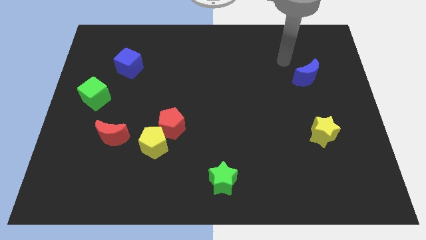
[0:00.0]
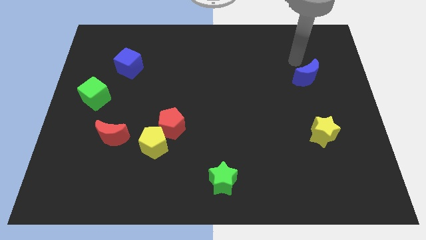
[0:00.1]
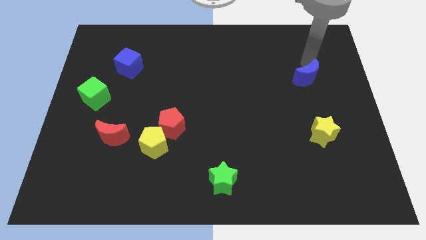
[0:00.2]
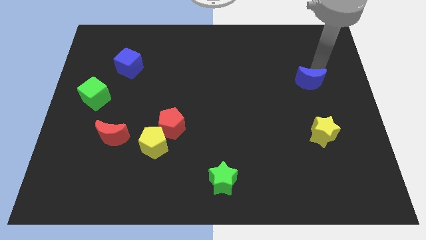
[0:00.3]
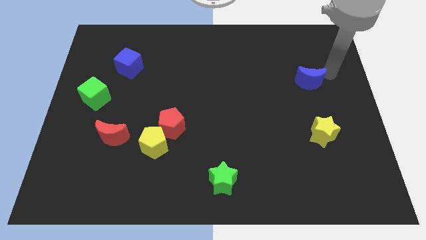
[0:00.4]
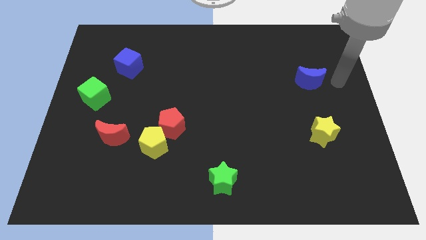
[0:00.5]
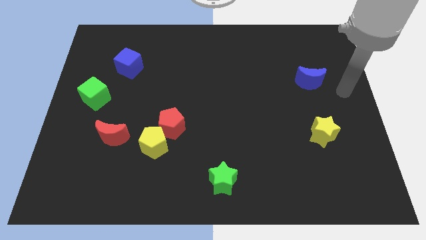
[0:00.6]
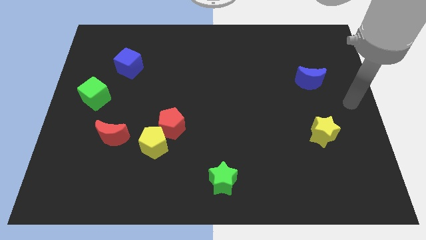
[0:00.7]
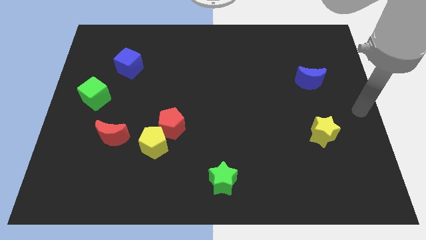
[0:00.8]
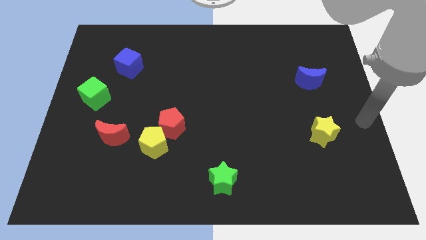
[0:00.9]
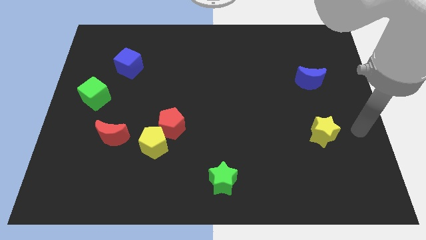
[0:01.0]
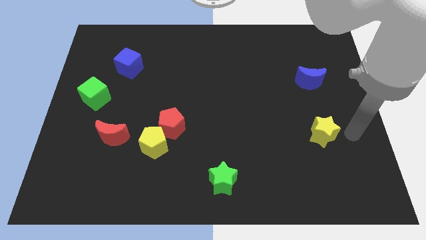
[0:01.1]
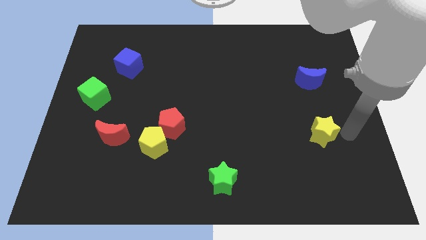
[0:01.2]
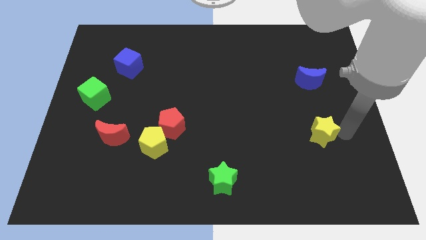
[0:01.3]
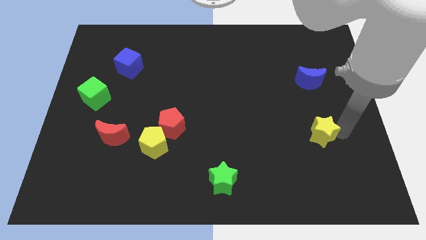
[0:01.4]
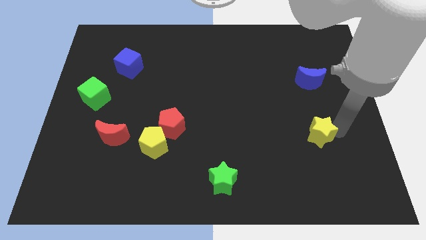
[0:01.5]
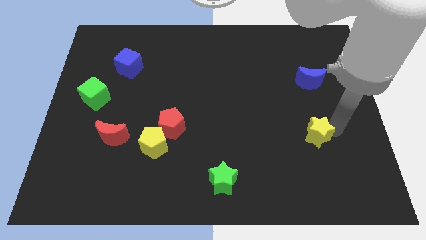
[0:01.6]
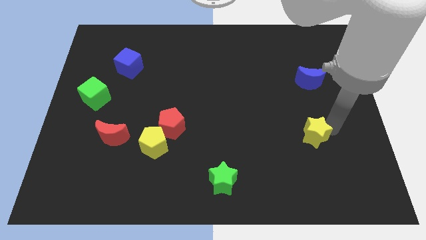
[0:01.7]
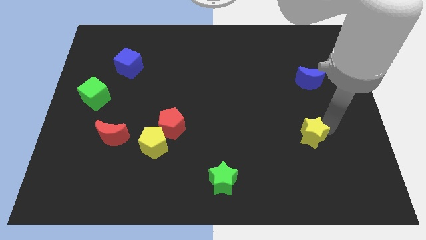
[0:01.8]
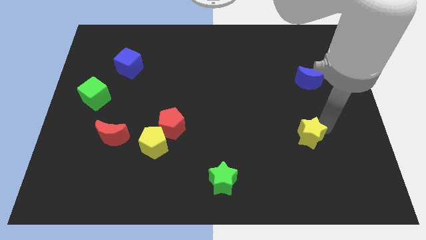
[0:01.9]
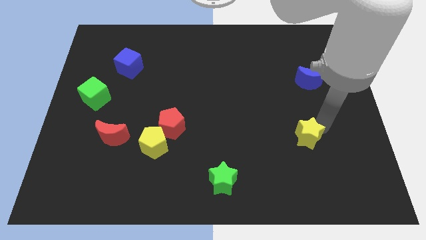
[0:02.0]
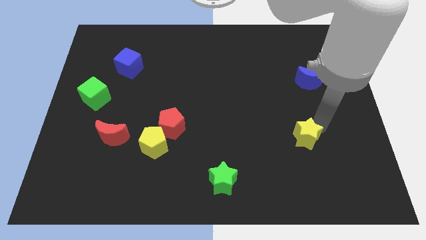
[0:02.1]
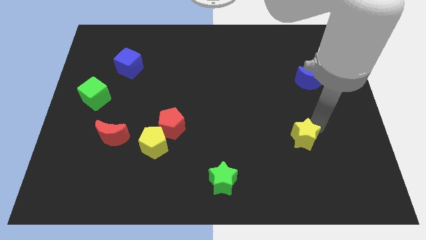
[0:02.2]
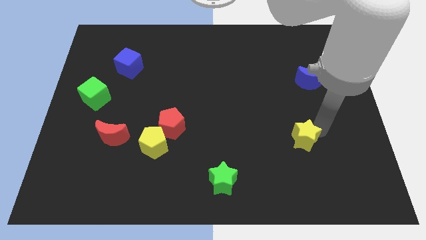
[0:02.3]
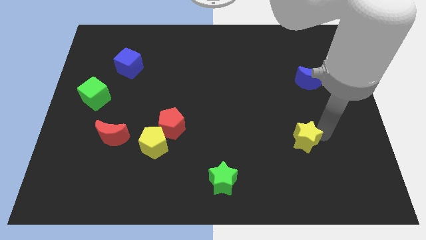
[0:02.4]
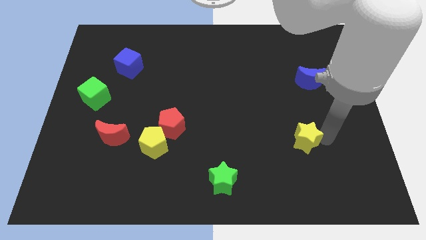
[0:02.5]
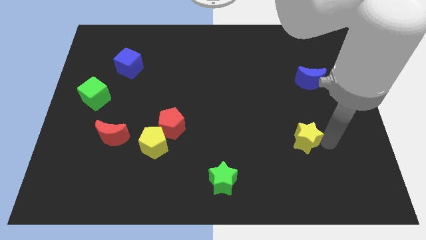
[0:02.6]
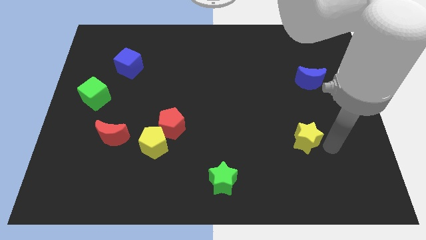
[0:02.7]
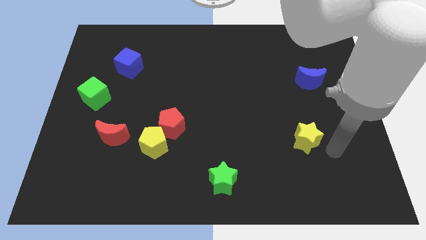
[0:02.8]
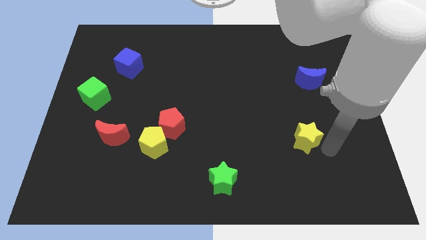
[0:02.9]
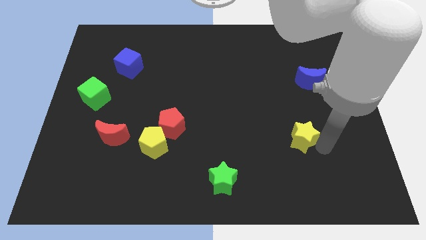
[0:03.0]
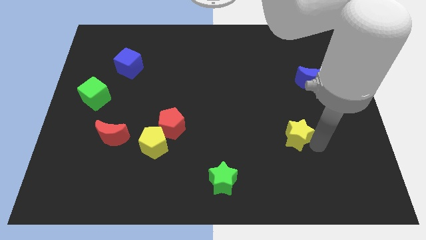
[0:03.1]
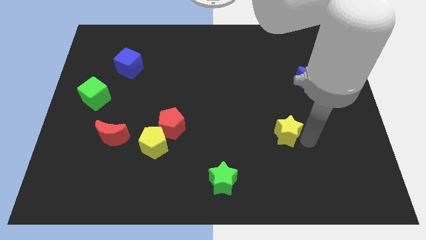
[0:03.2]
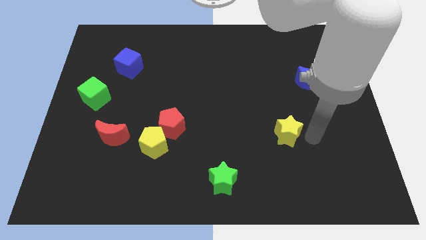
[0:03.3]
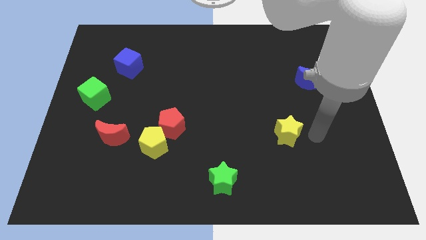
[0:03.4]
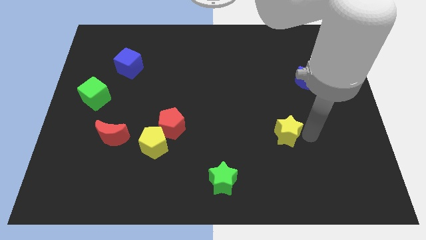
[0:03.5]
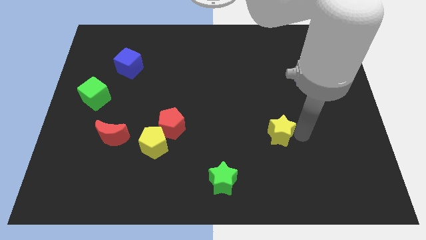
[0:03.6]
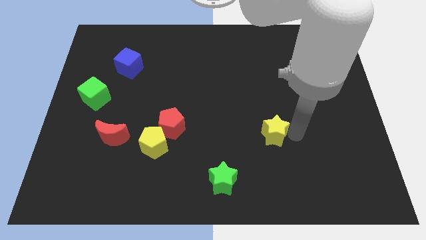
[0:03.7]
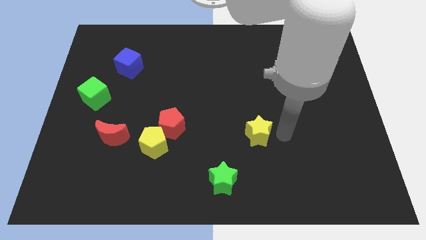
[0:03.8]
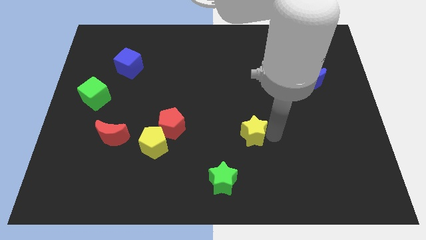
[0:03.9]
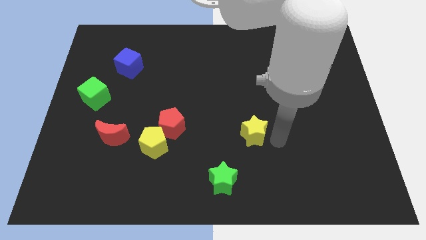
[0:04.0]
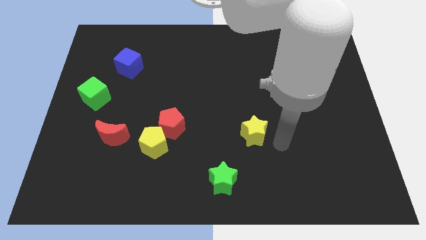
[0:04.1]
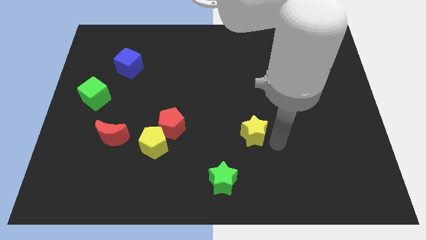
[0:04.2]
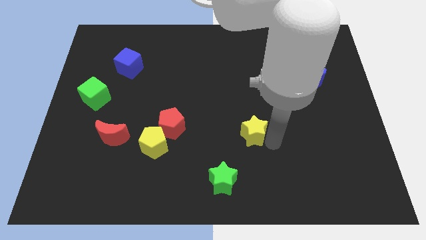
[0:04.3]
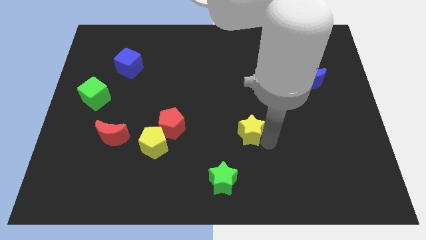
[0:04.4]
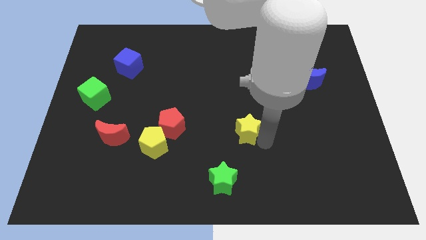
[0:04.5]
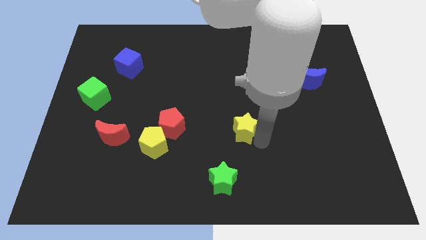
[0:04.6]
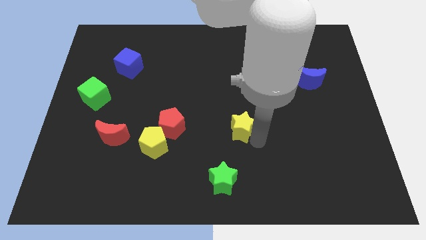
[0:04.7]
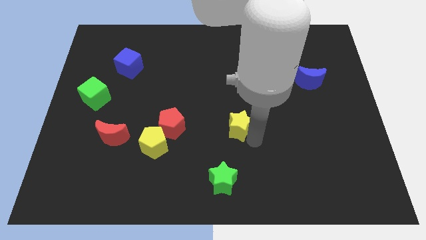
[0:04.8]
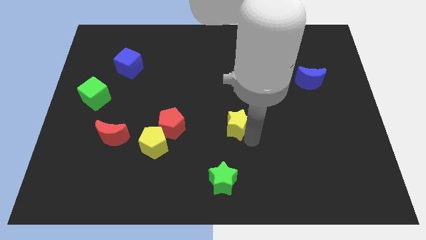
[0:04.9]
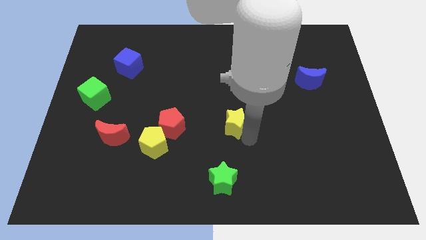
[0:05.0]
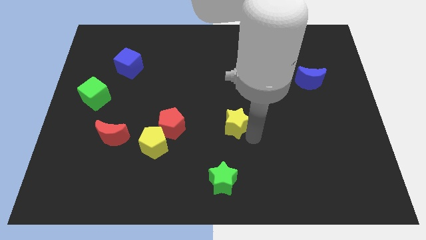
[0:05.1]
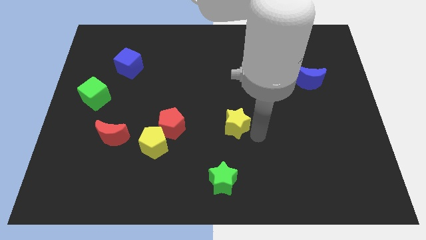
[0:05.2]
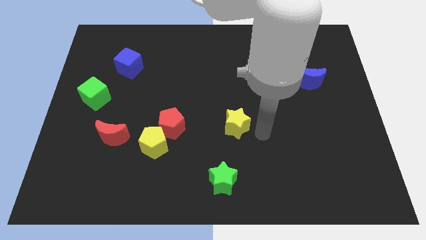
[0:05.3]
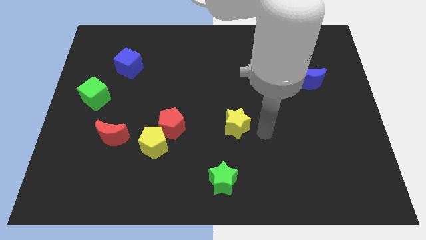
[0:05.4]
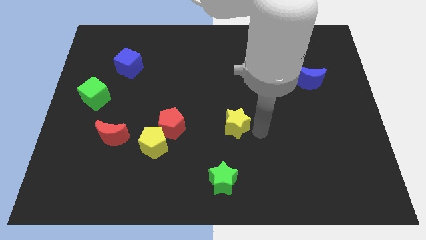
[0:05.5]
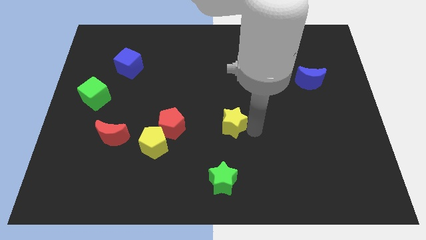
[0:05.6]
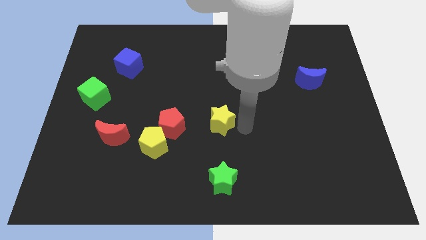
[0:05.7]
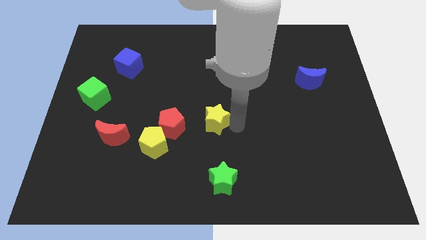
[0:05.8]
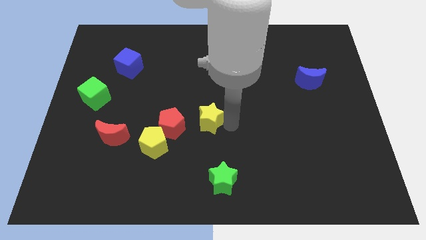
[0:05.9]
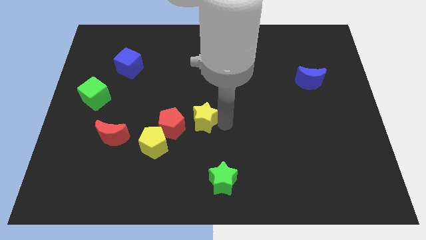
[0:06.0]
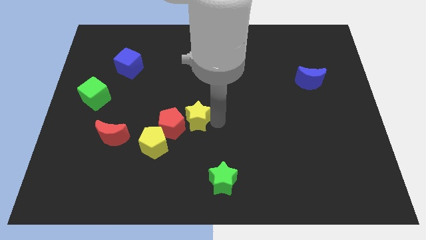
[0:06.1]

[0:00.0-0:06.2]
move the yellow star diagonally up and to the right of the yellow pentagon

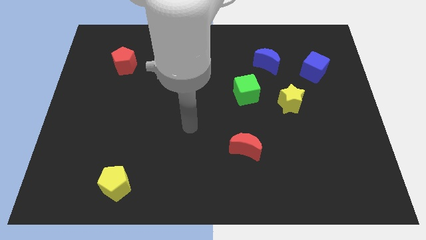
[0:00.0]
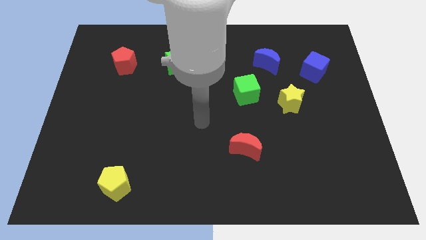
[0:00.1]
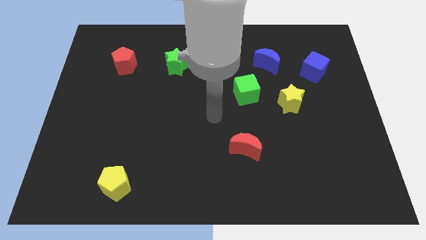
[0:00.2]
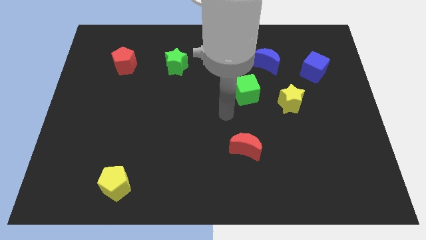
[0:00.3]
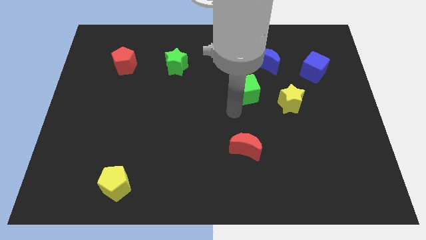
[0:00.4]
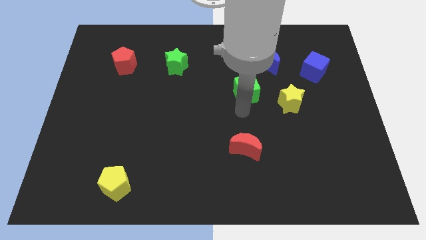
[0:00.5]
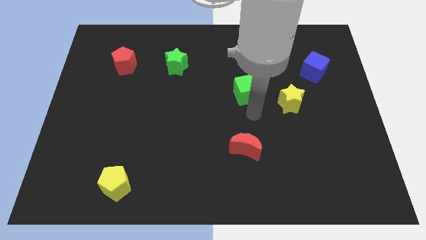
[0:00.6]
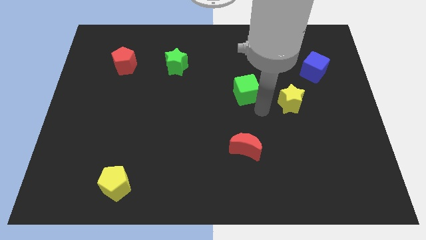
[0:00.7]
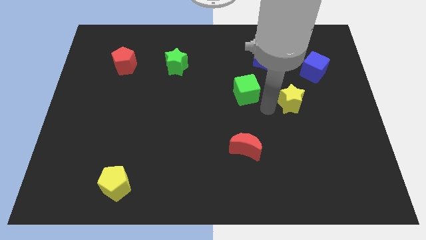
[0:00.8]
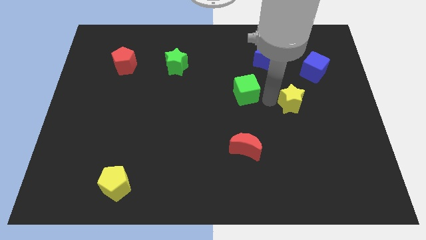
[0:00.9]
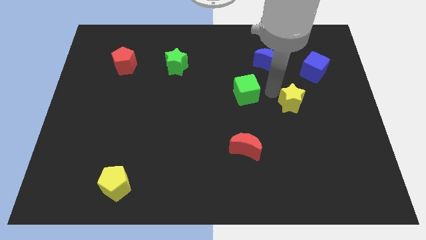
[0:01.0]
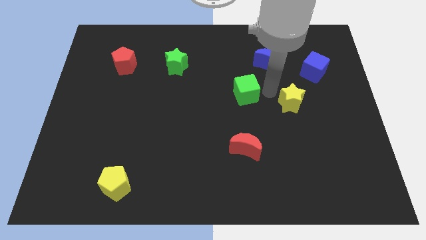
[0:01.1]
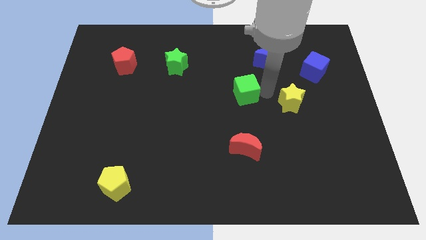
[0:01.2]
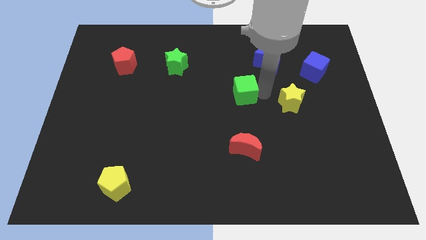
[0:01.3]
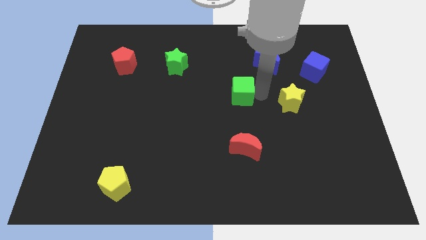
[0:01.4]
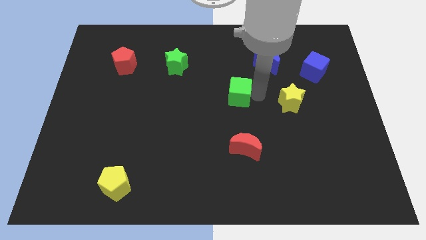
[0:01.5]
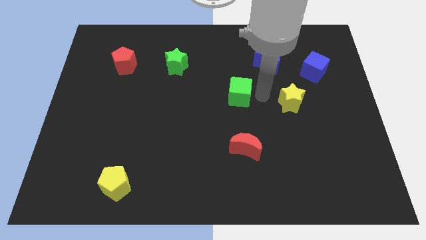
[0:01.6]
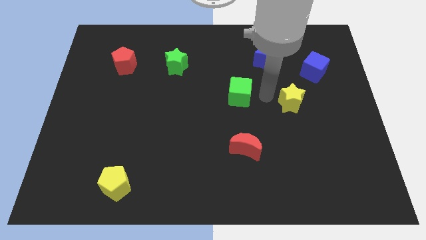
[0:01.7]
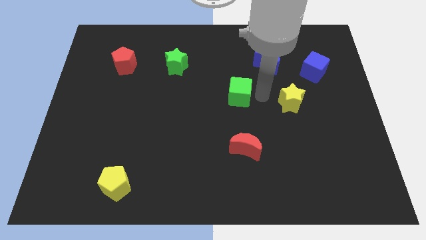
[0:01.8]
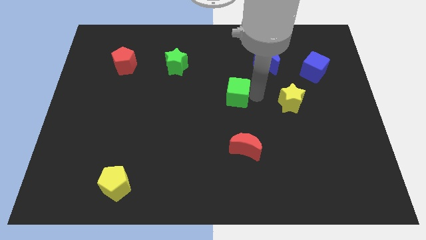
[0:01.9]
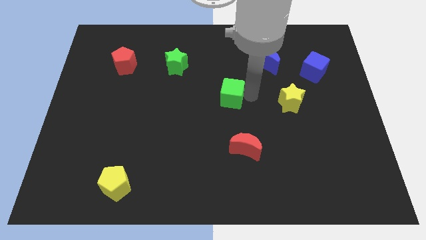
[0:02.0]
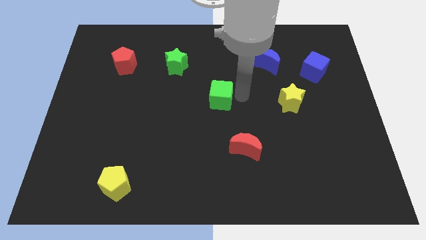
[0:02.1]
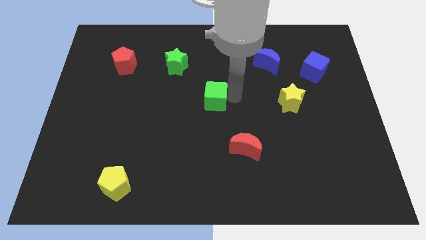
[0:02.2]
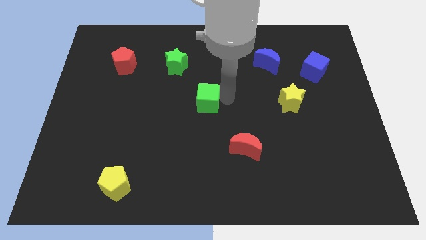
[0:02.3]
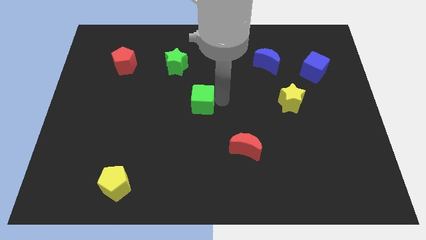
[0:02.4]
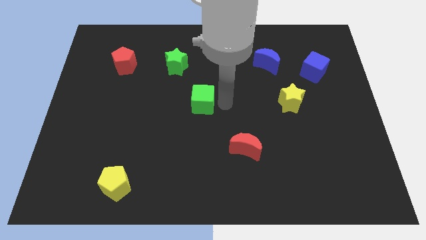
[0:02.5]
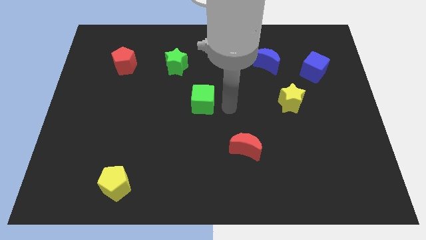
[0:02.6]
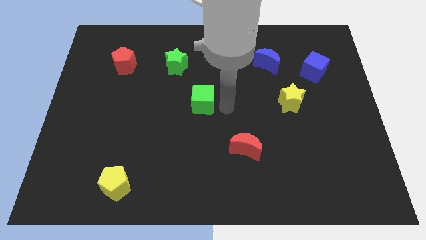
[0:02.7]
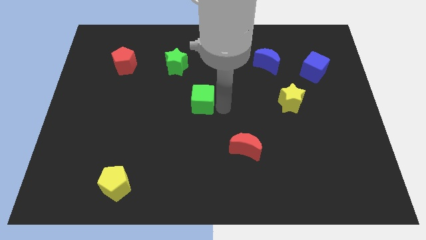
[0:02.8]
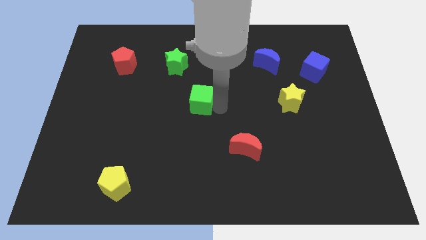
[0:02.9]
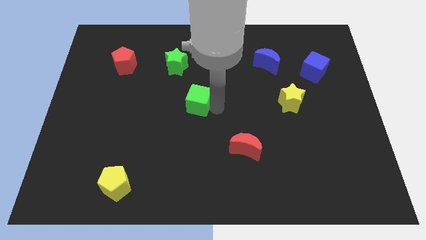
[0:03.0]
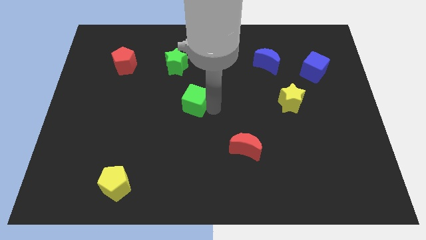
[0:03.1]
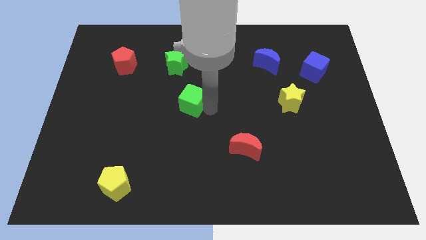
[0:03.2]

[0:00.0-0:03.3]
move the green cube to the bottom side of the green star
